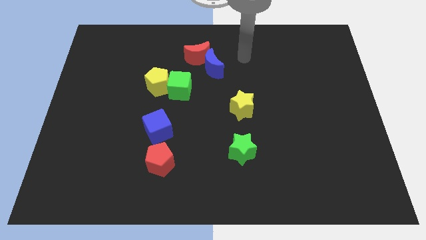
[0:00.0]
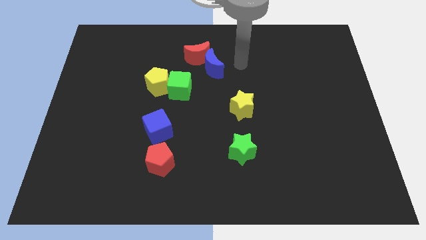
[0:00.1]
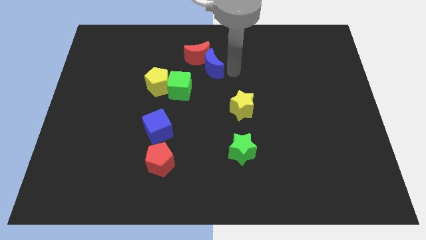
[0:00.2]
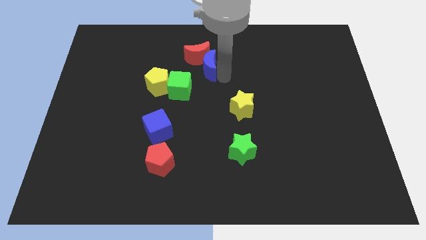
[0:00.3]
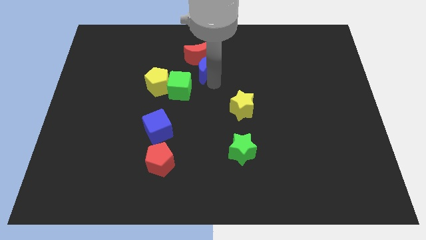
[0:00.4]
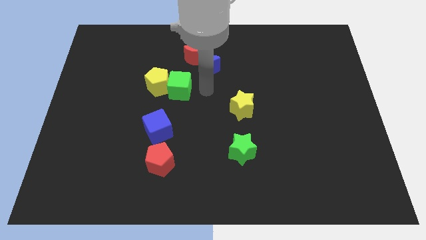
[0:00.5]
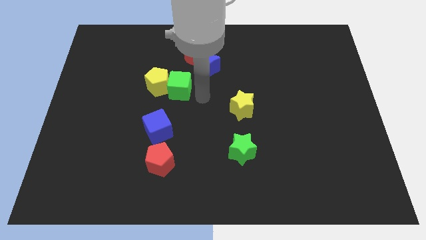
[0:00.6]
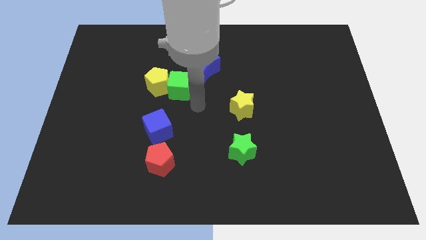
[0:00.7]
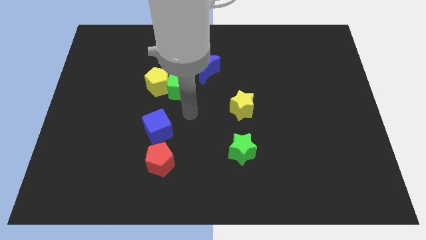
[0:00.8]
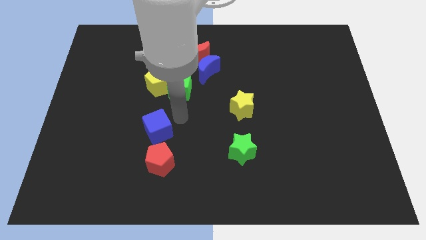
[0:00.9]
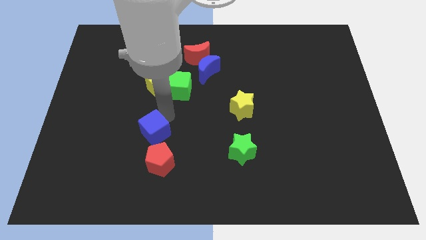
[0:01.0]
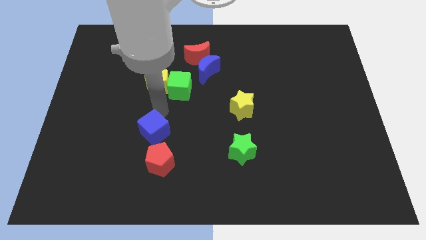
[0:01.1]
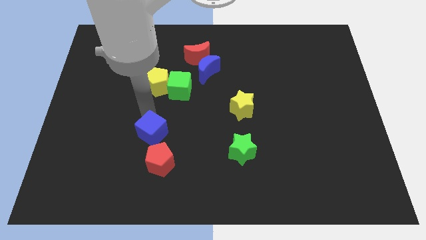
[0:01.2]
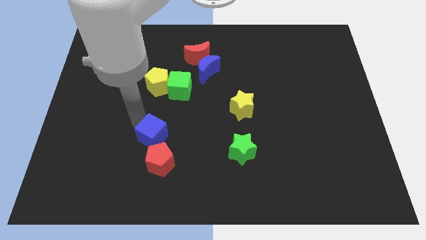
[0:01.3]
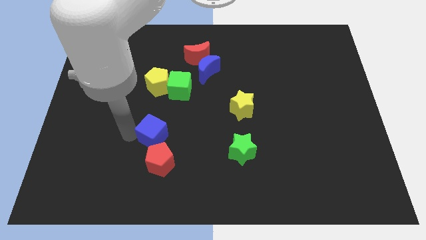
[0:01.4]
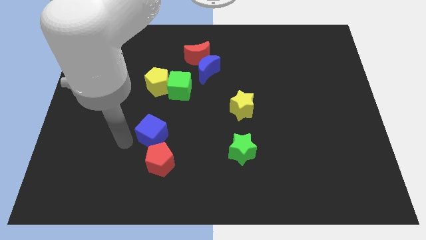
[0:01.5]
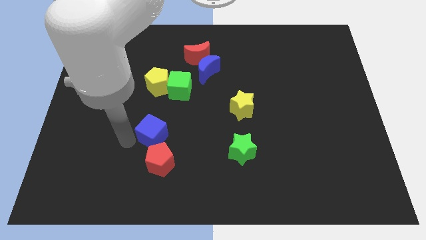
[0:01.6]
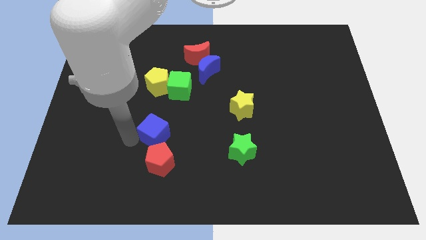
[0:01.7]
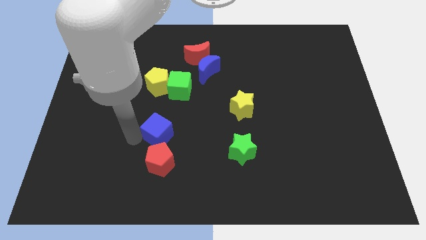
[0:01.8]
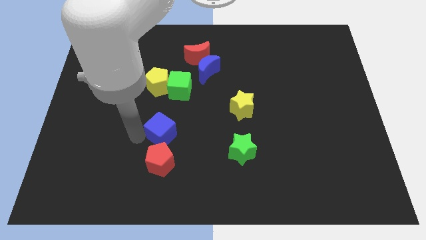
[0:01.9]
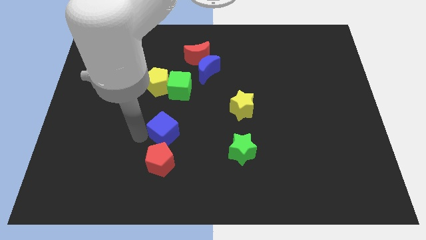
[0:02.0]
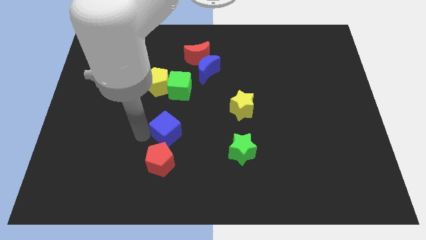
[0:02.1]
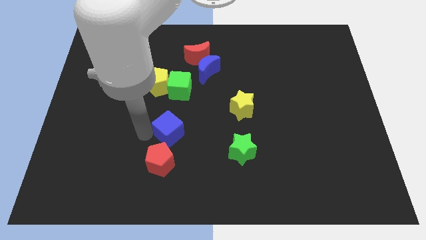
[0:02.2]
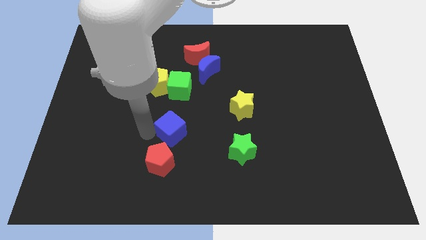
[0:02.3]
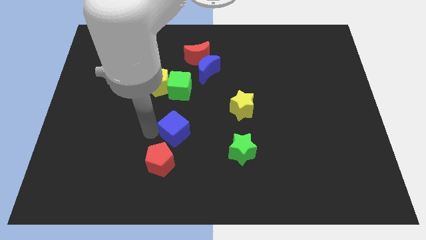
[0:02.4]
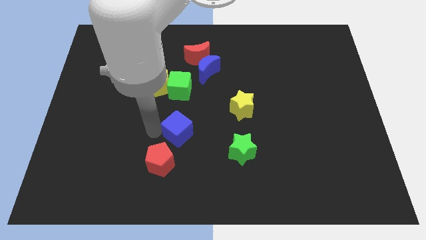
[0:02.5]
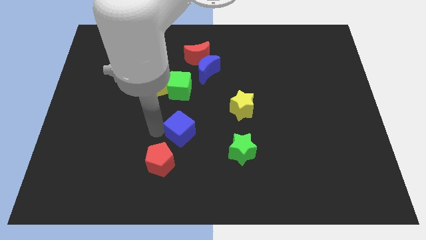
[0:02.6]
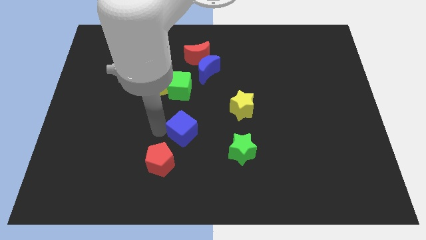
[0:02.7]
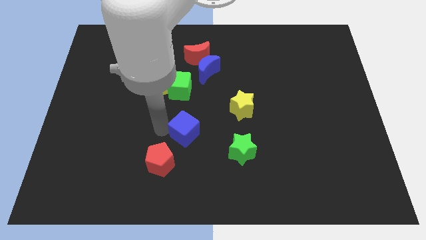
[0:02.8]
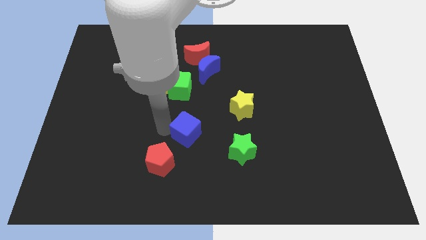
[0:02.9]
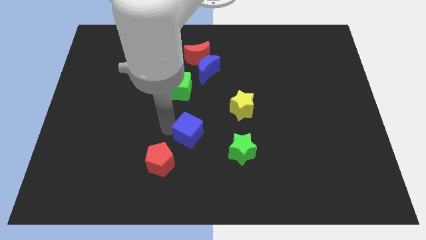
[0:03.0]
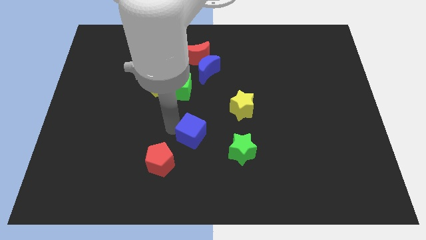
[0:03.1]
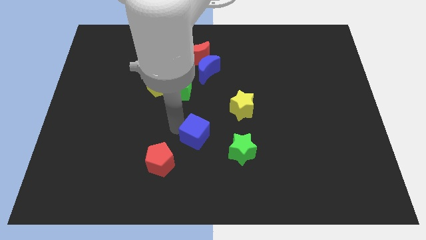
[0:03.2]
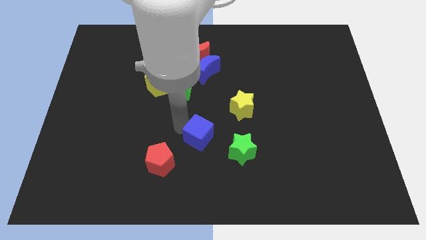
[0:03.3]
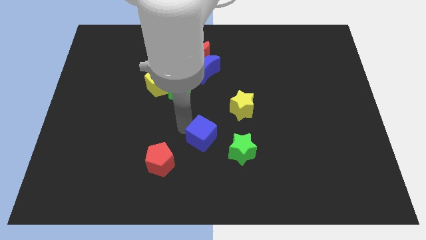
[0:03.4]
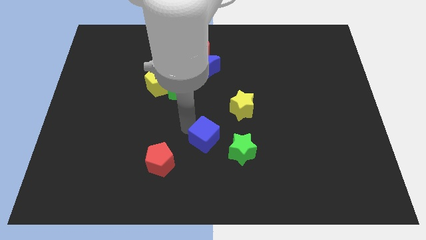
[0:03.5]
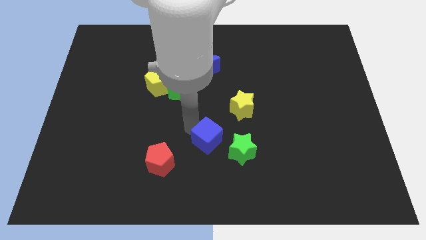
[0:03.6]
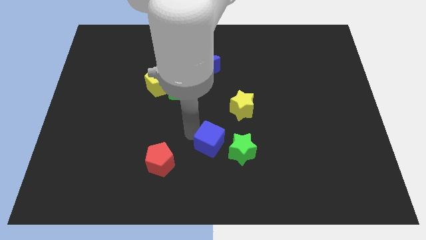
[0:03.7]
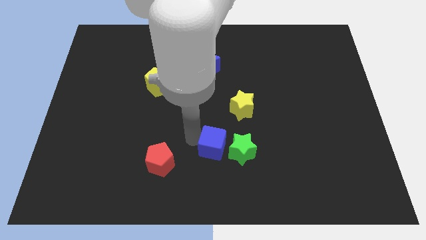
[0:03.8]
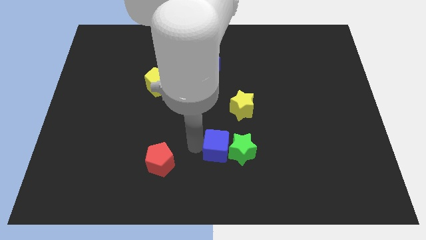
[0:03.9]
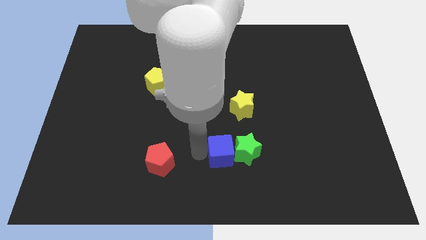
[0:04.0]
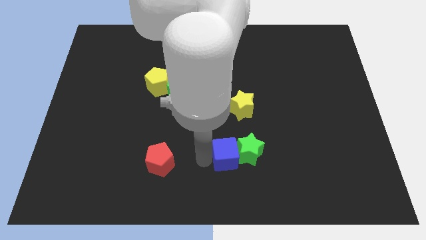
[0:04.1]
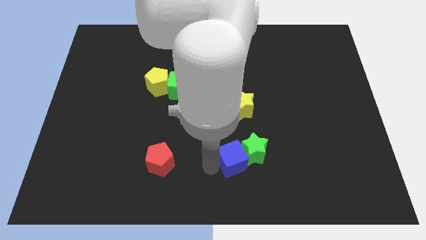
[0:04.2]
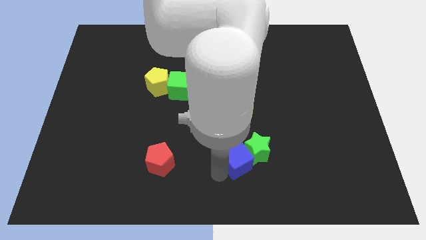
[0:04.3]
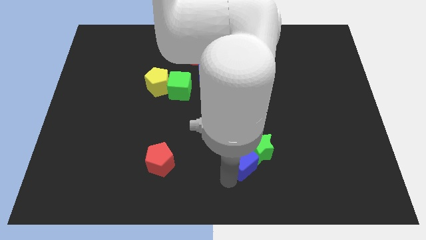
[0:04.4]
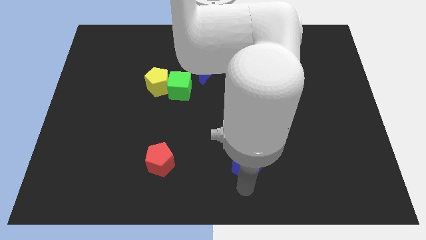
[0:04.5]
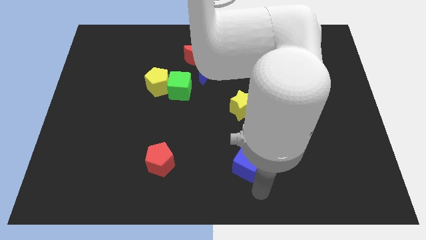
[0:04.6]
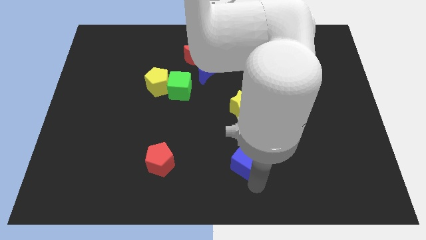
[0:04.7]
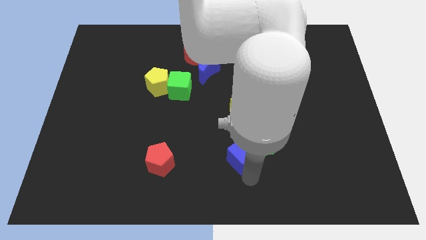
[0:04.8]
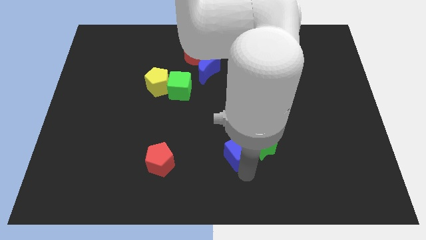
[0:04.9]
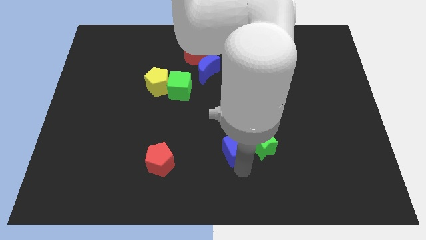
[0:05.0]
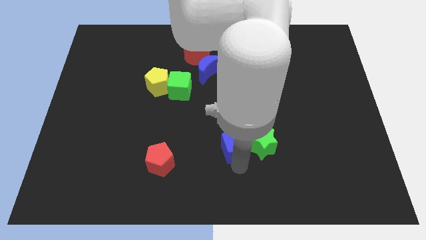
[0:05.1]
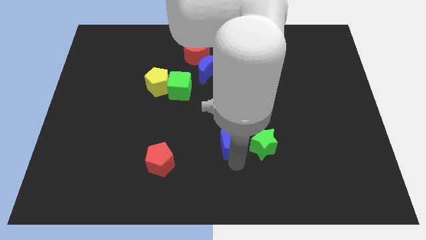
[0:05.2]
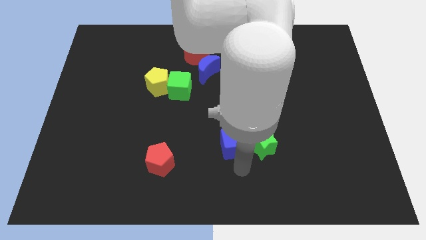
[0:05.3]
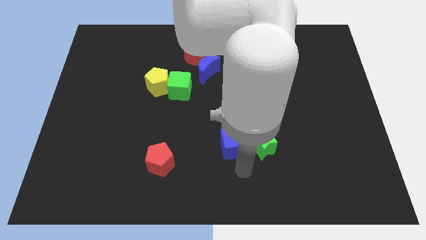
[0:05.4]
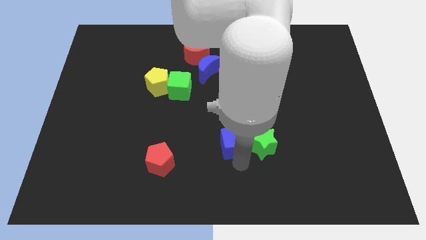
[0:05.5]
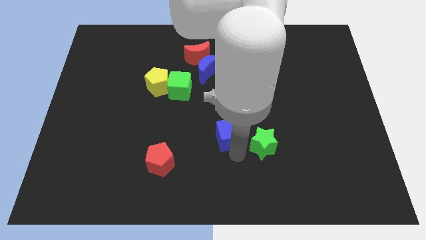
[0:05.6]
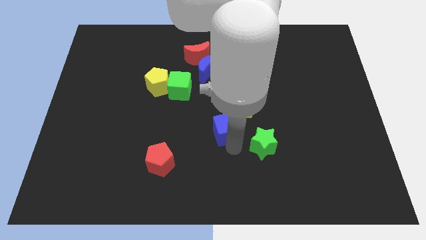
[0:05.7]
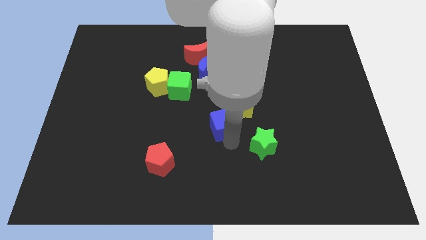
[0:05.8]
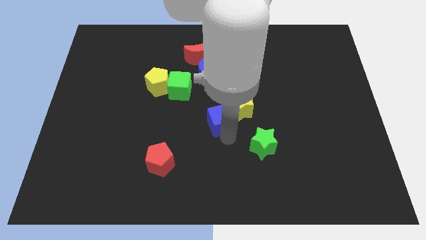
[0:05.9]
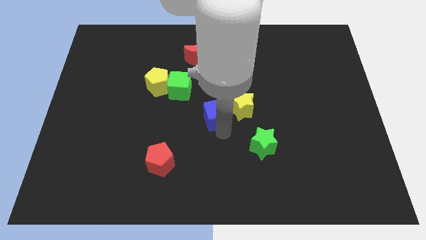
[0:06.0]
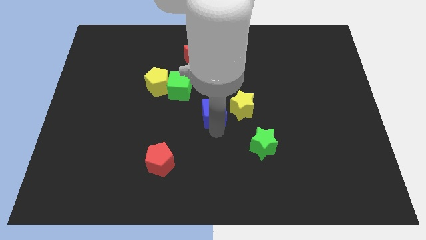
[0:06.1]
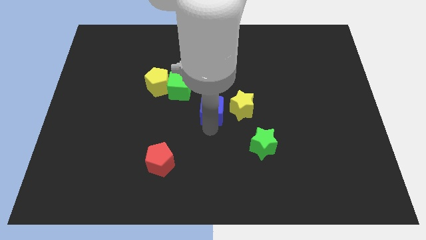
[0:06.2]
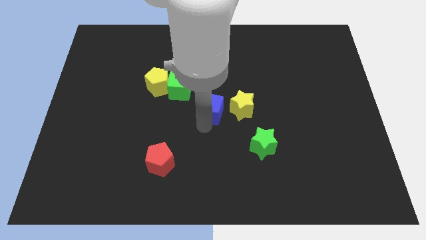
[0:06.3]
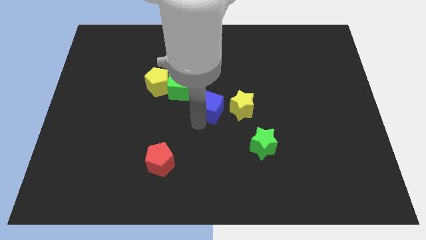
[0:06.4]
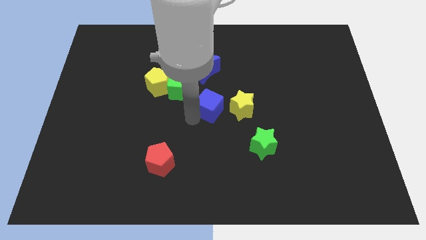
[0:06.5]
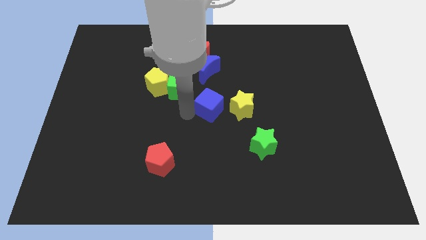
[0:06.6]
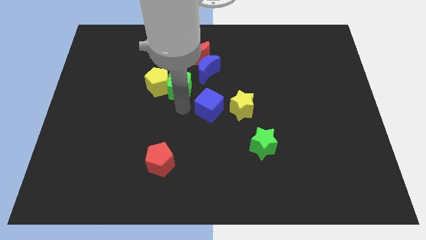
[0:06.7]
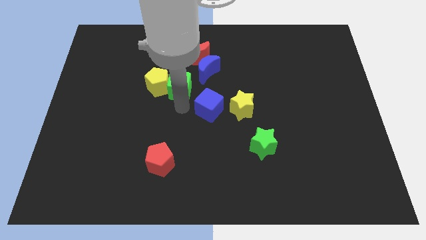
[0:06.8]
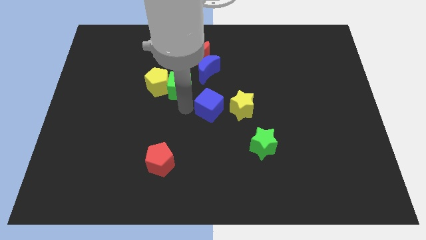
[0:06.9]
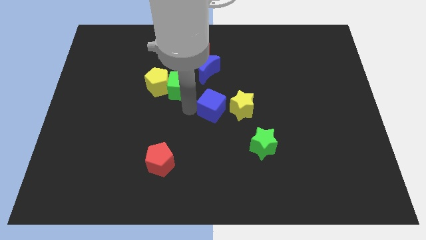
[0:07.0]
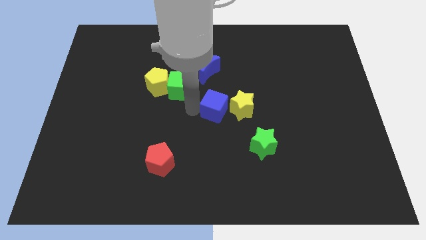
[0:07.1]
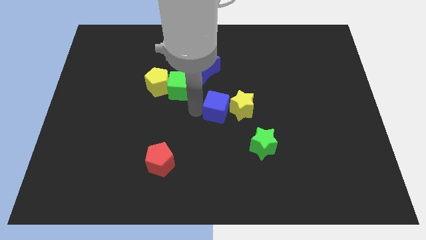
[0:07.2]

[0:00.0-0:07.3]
slide the blue cube close to the yellow star
